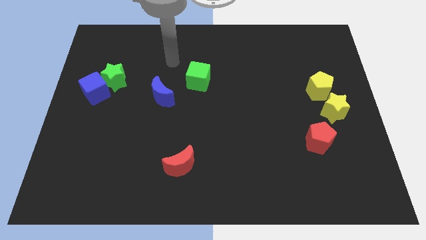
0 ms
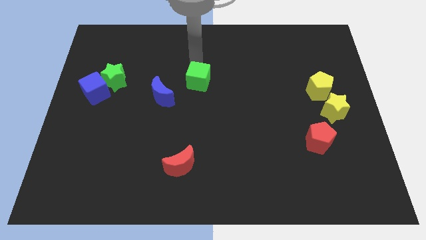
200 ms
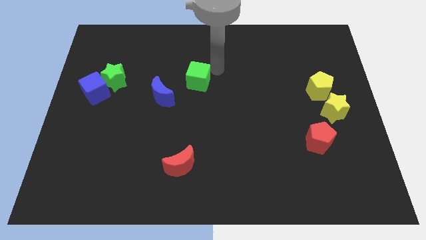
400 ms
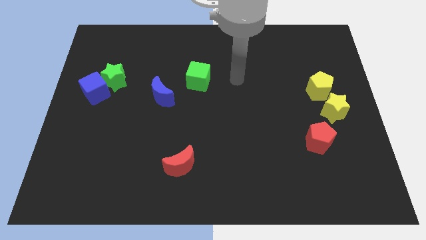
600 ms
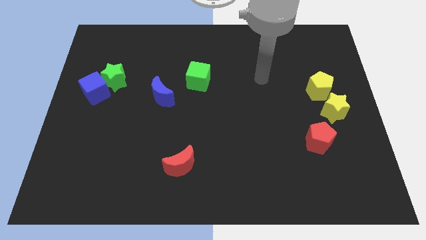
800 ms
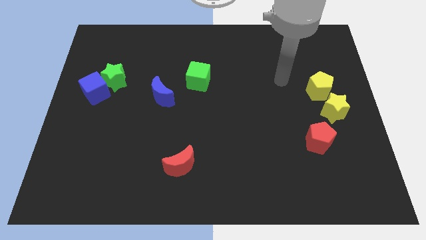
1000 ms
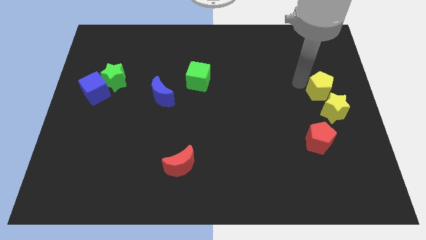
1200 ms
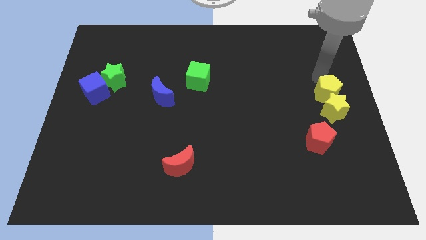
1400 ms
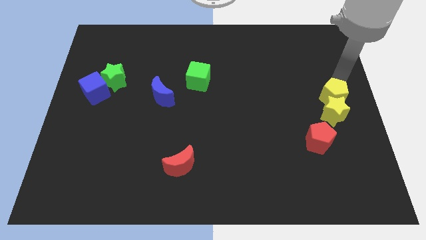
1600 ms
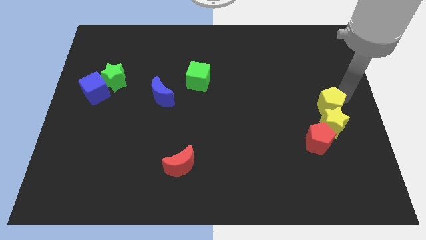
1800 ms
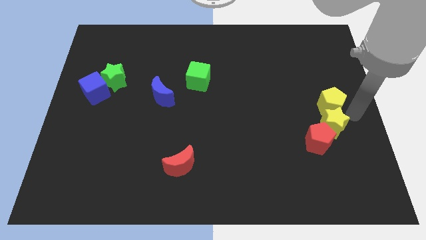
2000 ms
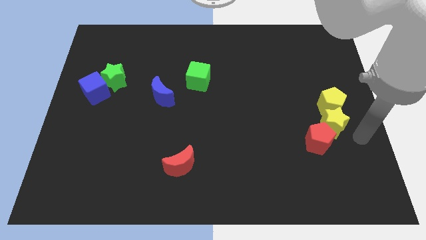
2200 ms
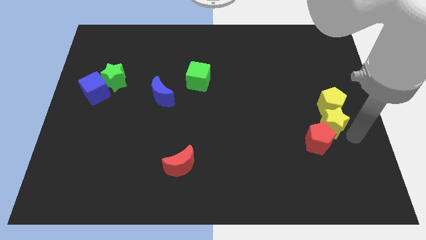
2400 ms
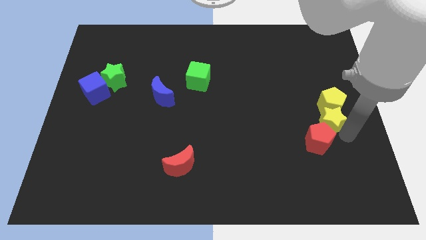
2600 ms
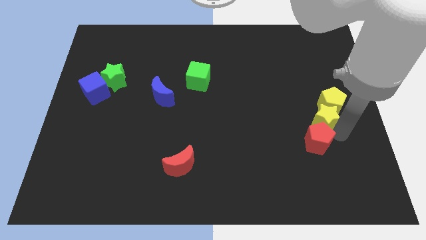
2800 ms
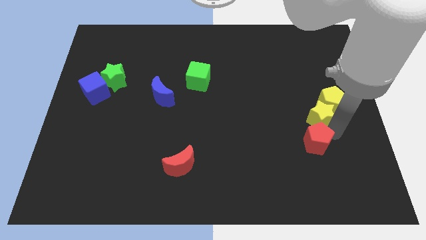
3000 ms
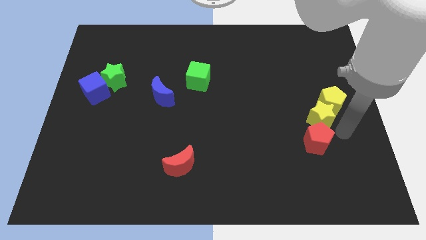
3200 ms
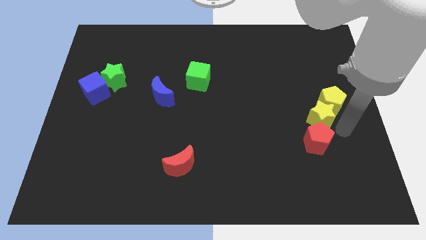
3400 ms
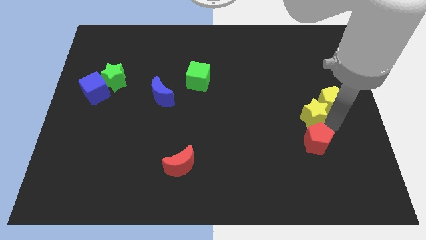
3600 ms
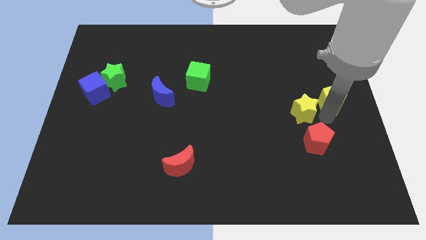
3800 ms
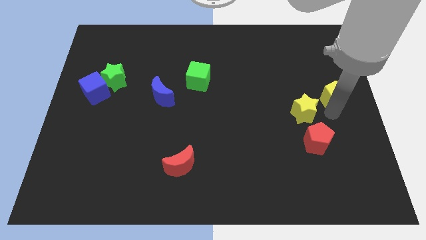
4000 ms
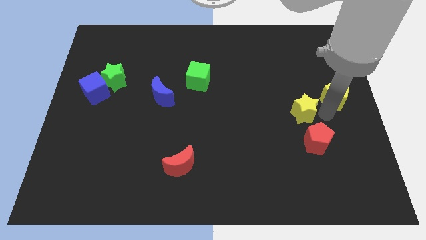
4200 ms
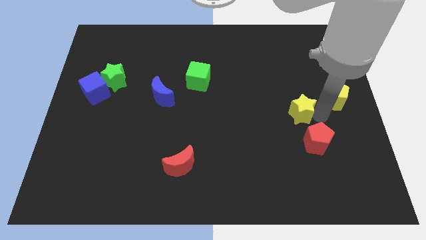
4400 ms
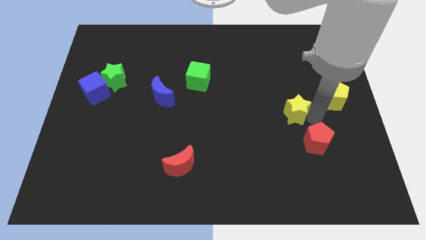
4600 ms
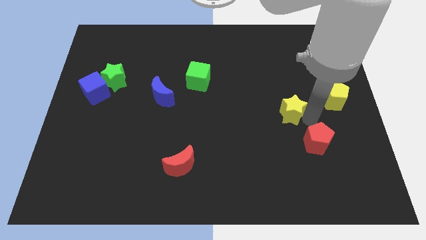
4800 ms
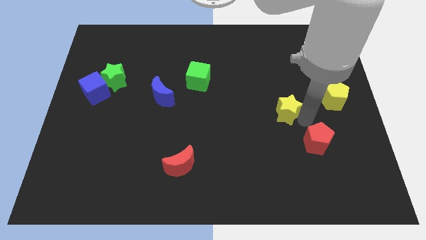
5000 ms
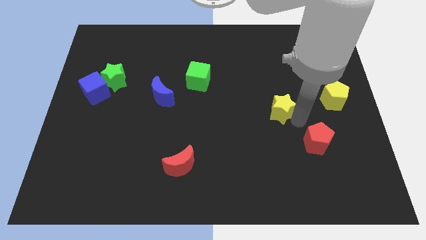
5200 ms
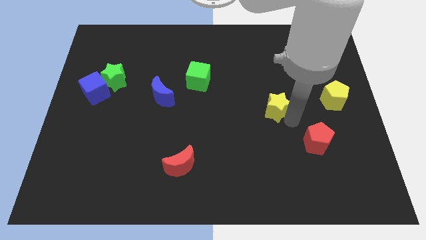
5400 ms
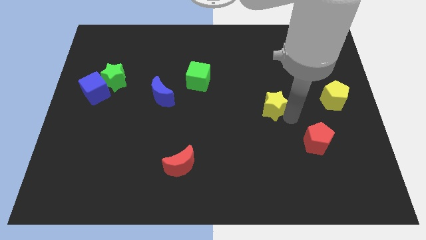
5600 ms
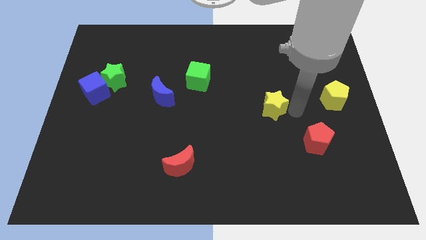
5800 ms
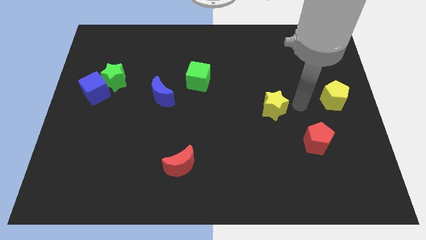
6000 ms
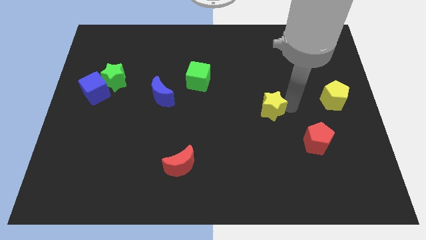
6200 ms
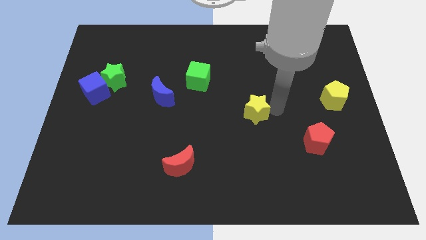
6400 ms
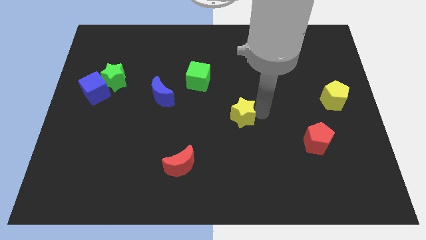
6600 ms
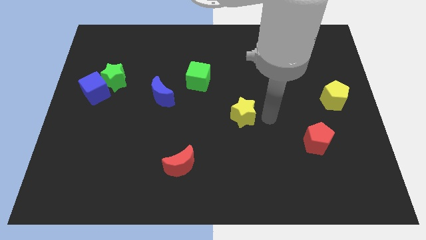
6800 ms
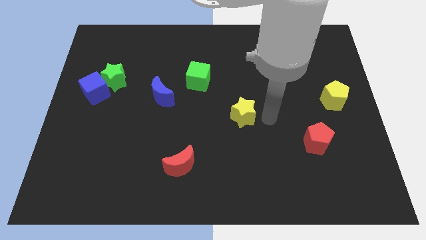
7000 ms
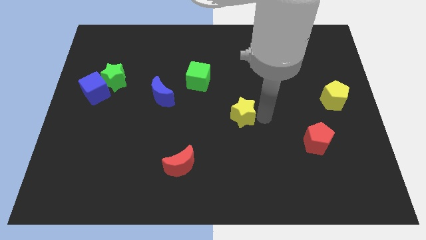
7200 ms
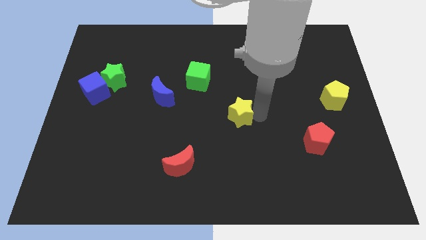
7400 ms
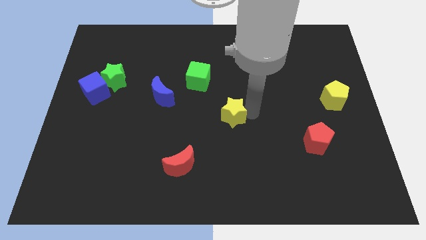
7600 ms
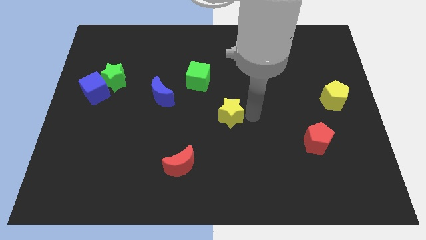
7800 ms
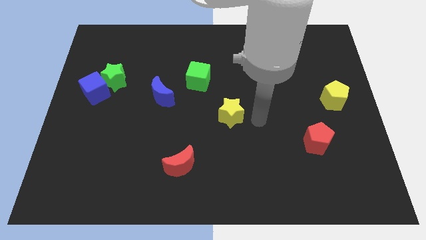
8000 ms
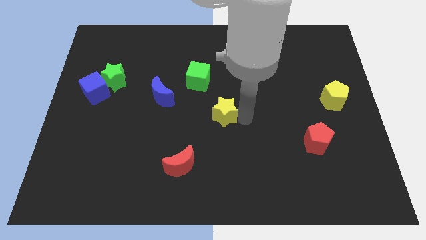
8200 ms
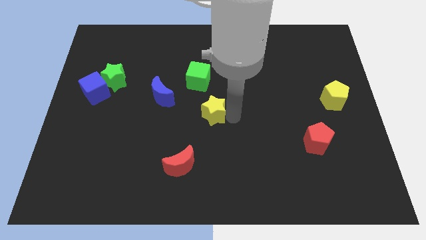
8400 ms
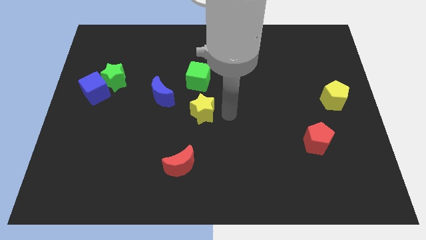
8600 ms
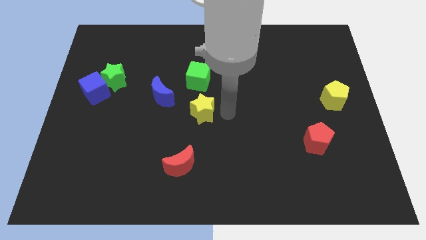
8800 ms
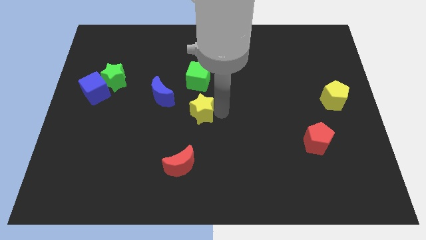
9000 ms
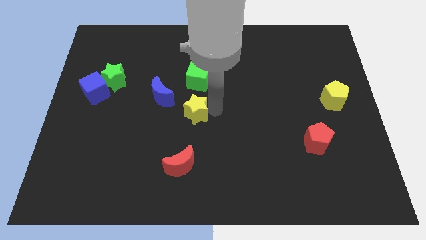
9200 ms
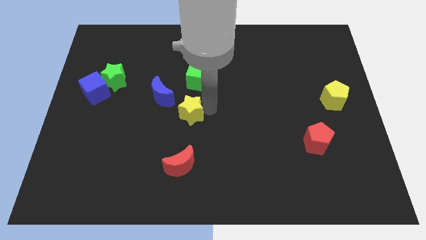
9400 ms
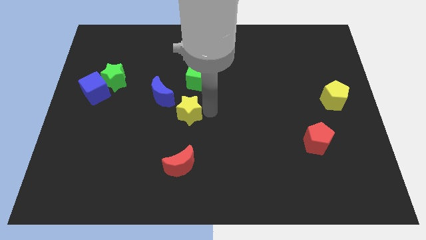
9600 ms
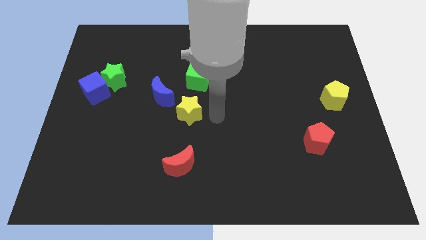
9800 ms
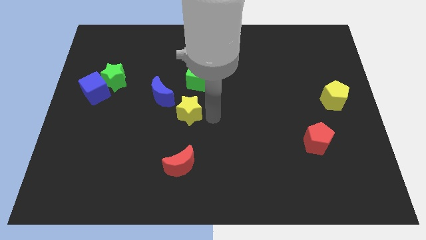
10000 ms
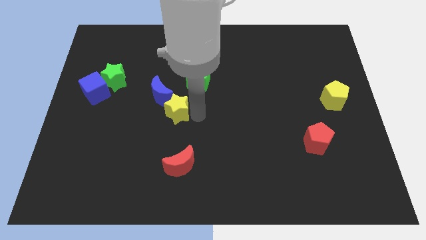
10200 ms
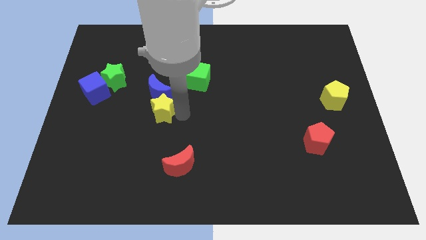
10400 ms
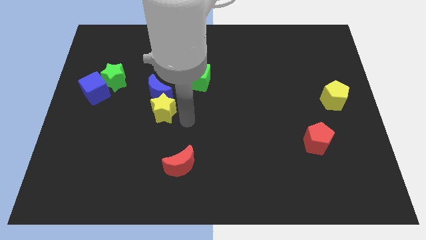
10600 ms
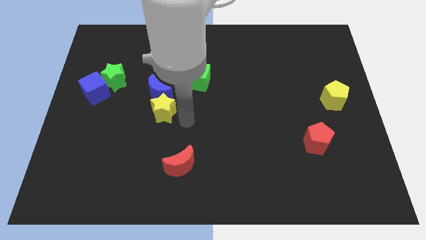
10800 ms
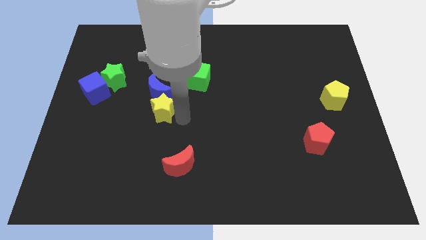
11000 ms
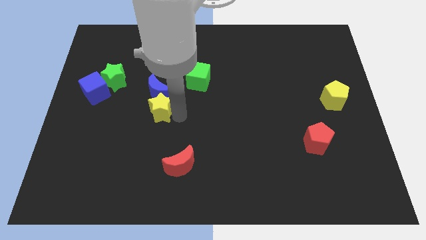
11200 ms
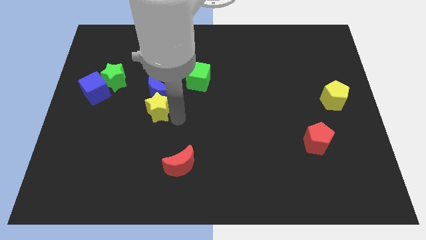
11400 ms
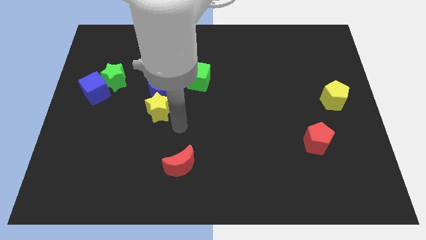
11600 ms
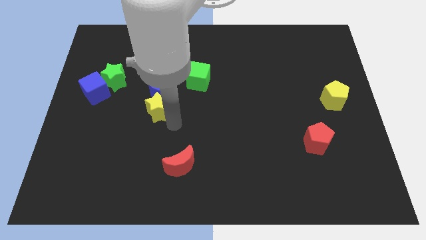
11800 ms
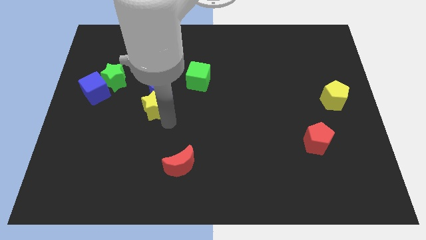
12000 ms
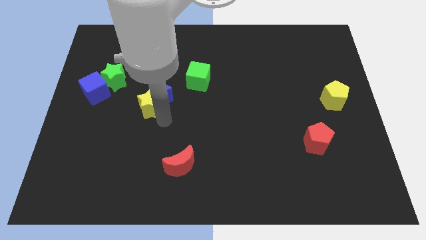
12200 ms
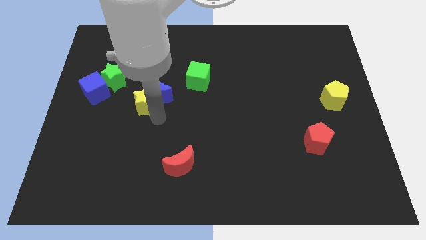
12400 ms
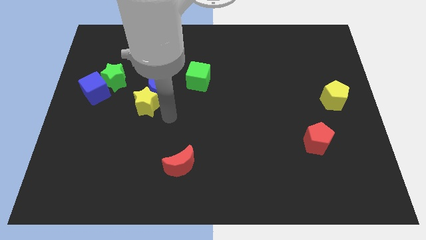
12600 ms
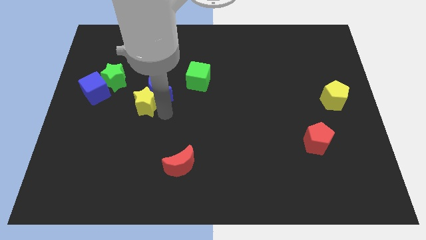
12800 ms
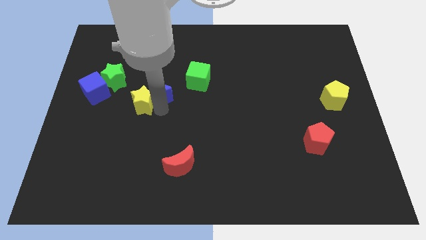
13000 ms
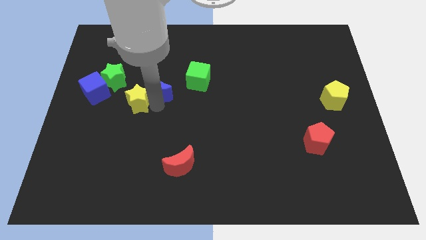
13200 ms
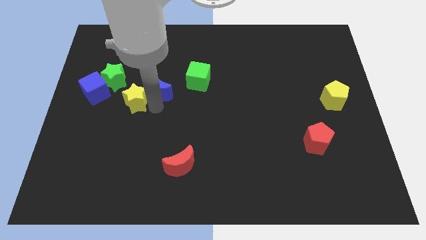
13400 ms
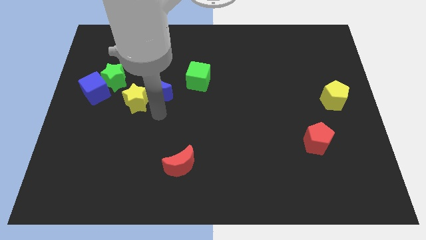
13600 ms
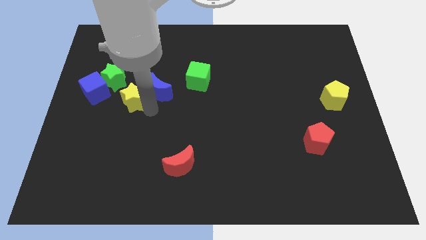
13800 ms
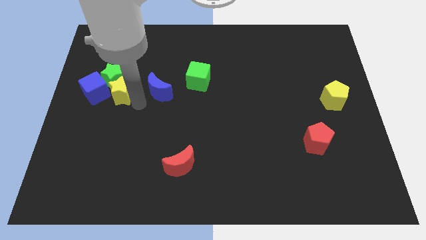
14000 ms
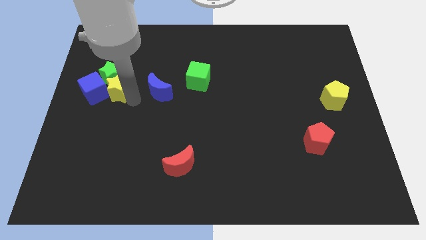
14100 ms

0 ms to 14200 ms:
put the yellow star next to the blue cube
